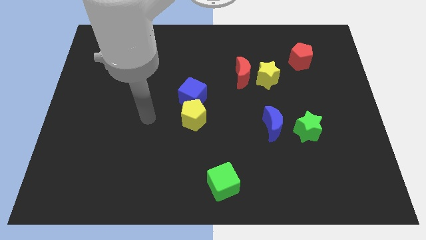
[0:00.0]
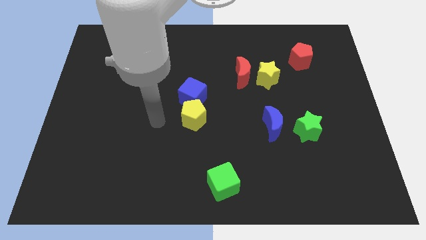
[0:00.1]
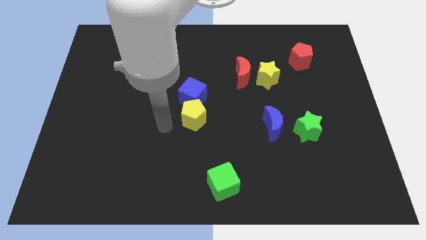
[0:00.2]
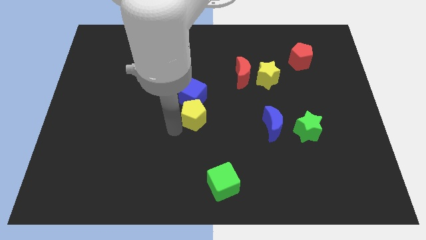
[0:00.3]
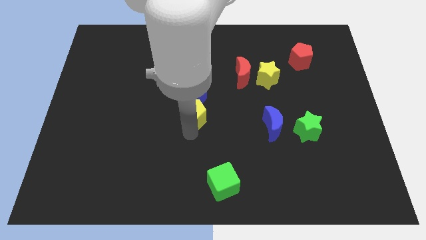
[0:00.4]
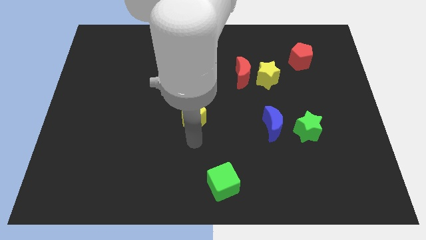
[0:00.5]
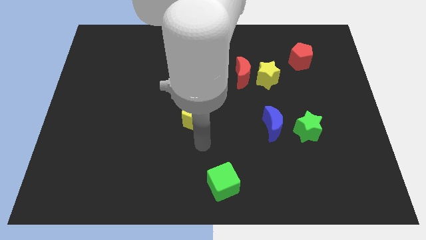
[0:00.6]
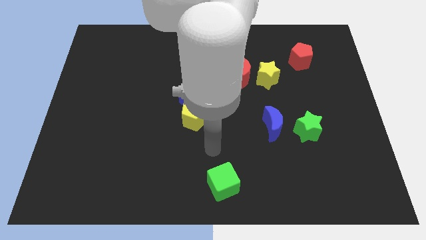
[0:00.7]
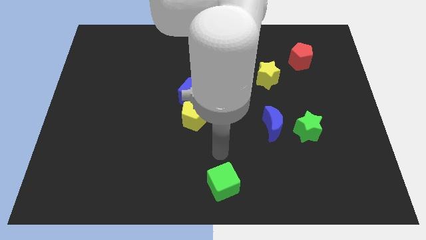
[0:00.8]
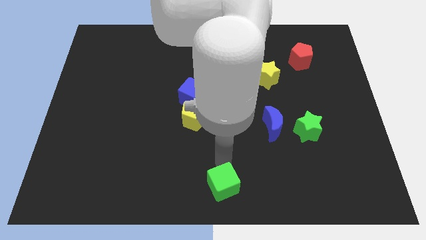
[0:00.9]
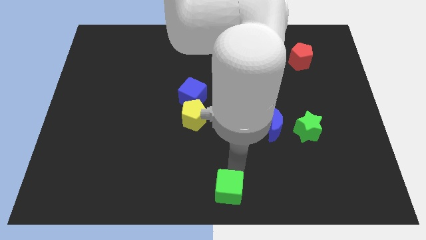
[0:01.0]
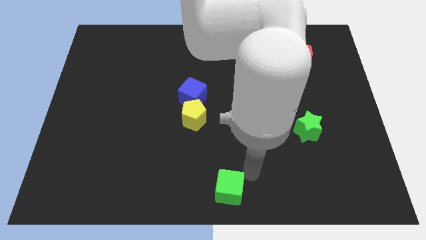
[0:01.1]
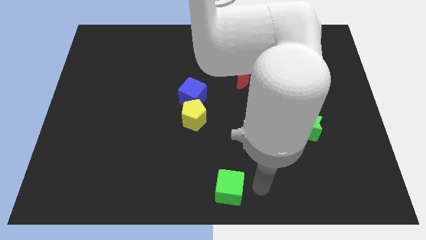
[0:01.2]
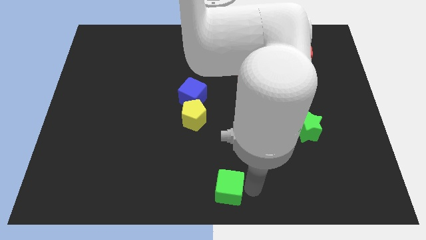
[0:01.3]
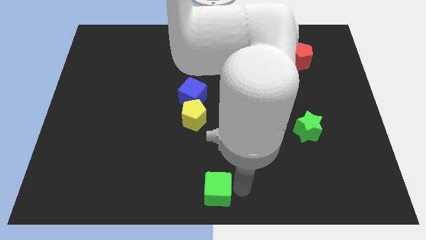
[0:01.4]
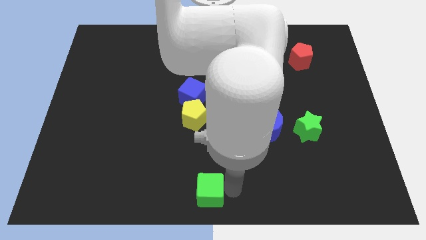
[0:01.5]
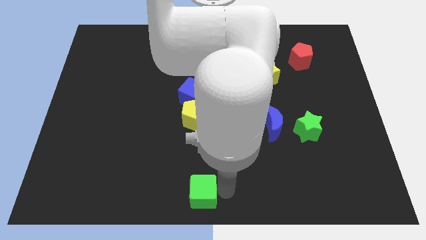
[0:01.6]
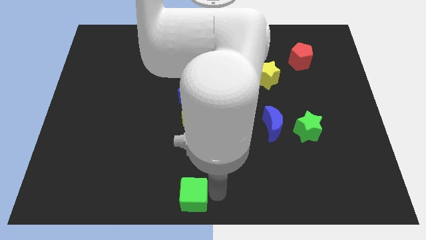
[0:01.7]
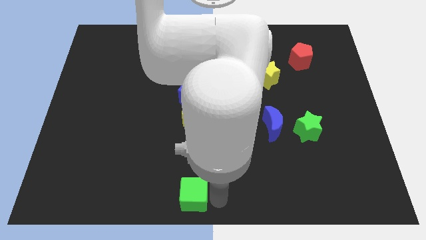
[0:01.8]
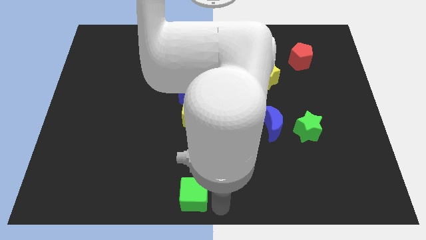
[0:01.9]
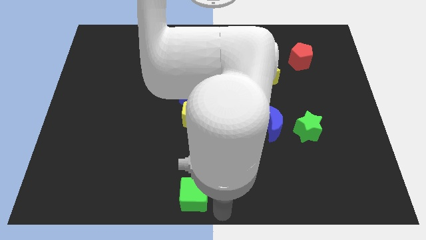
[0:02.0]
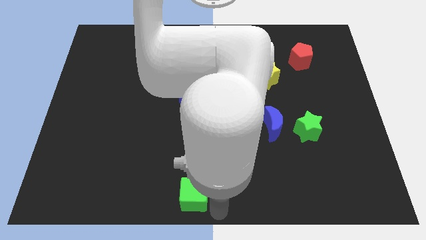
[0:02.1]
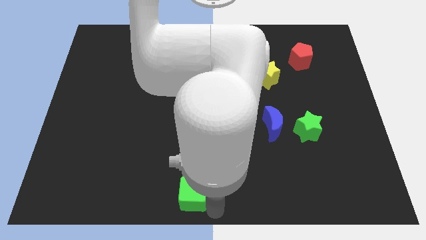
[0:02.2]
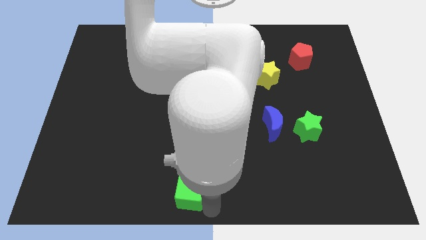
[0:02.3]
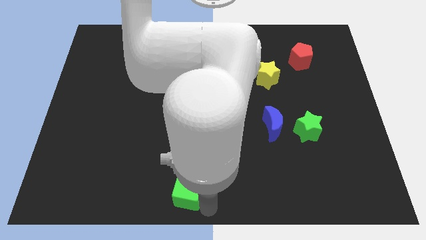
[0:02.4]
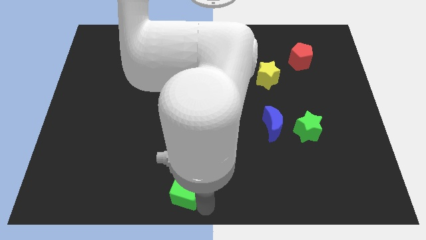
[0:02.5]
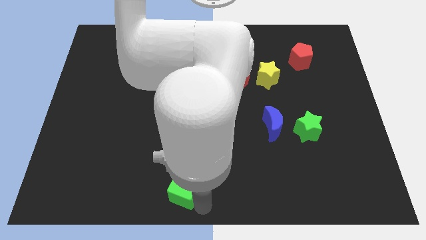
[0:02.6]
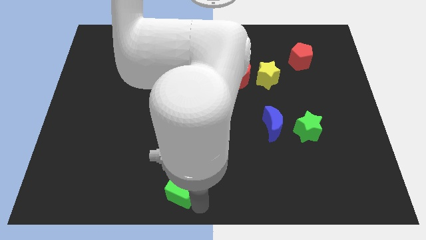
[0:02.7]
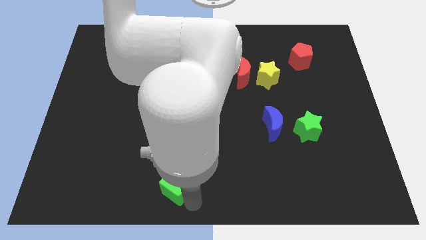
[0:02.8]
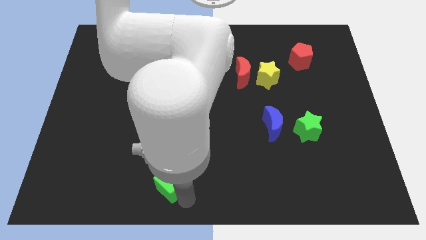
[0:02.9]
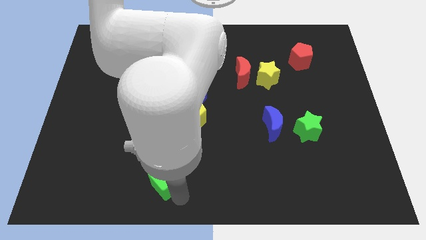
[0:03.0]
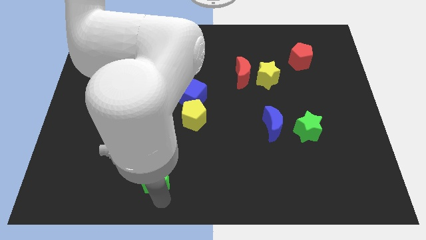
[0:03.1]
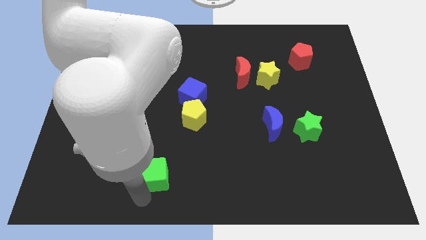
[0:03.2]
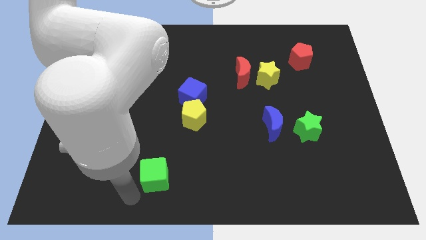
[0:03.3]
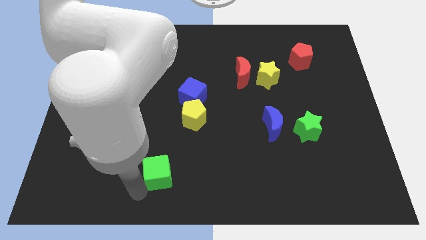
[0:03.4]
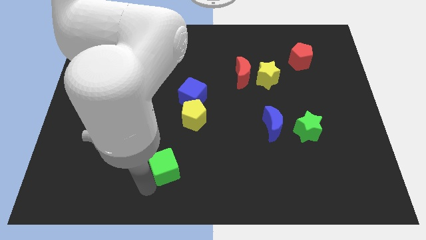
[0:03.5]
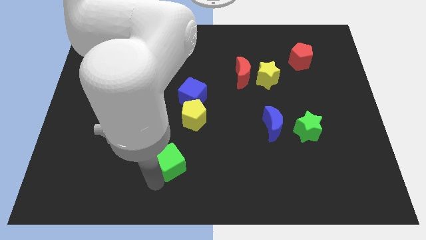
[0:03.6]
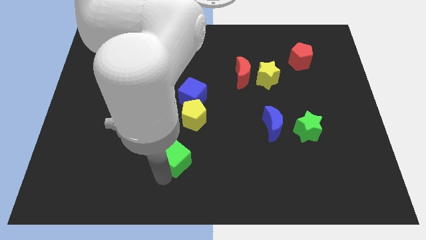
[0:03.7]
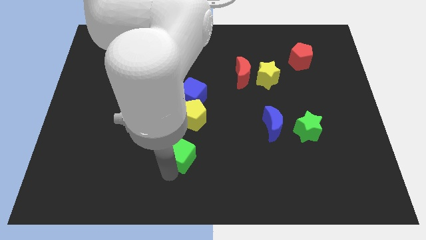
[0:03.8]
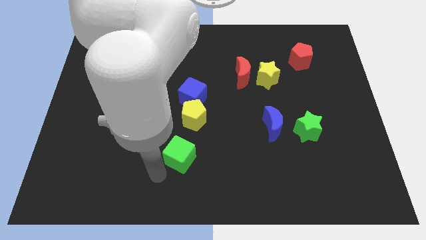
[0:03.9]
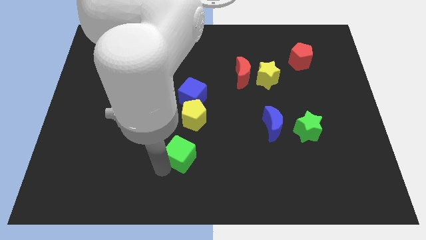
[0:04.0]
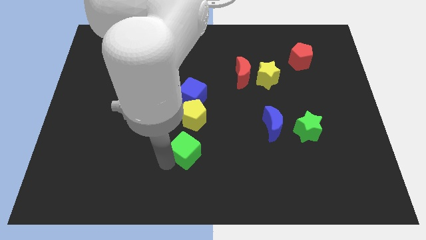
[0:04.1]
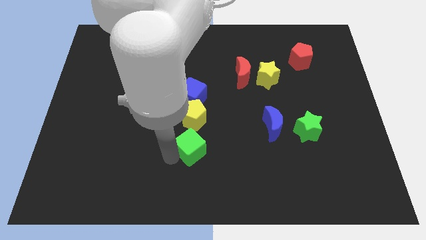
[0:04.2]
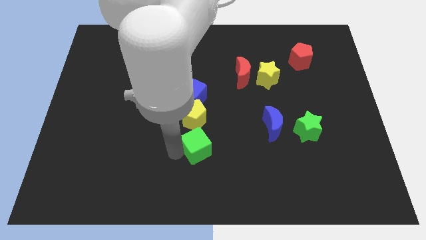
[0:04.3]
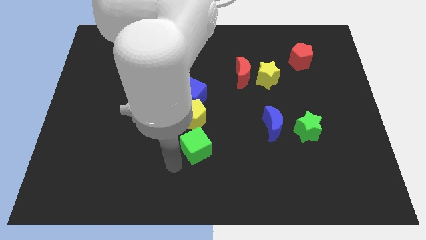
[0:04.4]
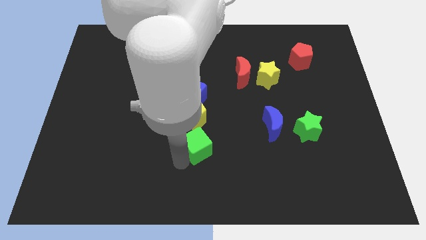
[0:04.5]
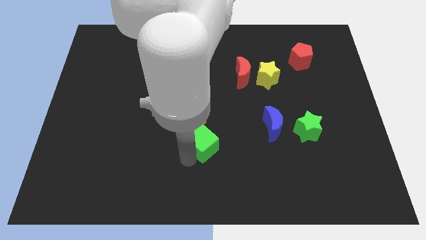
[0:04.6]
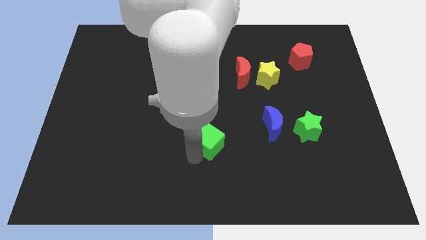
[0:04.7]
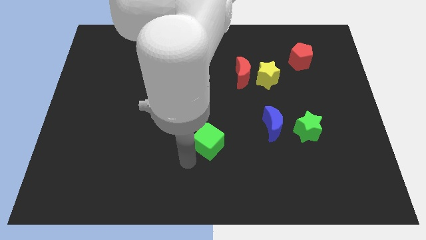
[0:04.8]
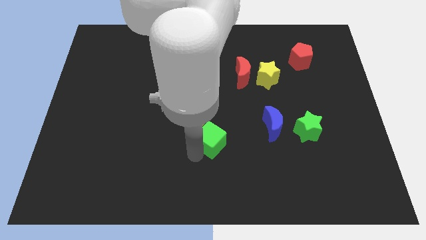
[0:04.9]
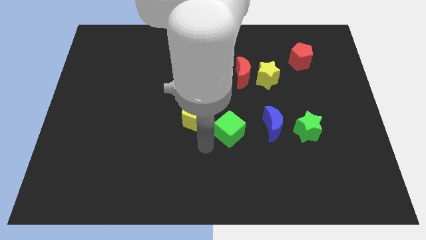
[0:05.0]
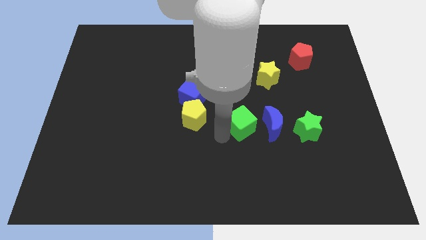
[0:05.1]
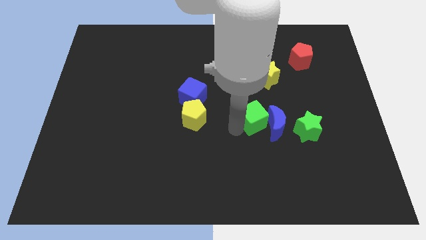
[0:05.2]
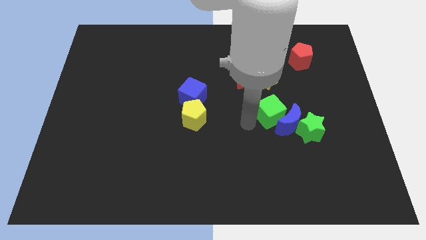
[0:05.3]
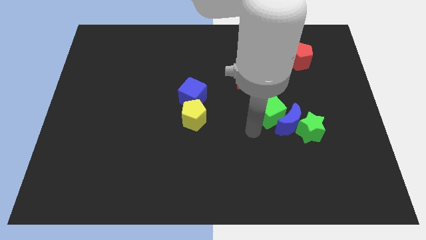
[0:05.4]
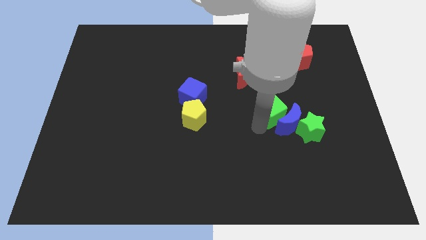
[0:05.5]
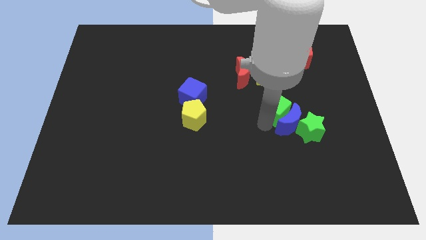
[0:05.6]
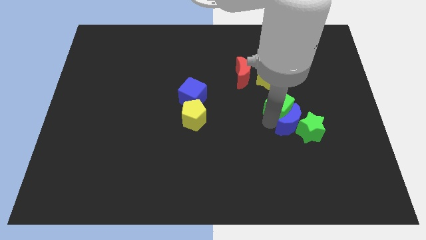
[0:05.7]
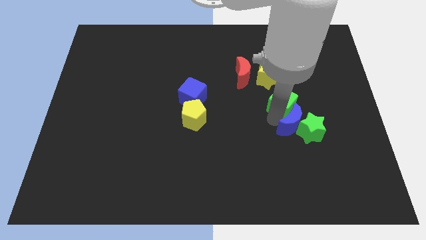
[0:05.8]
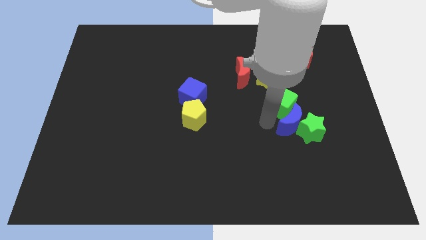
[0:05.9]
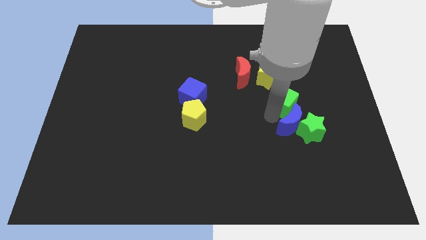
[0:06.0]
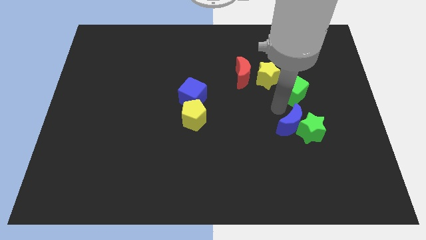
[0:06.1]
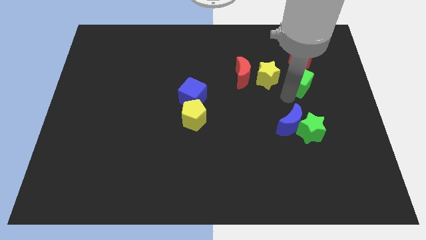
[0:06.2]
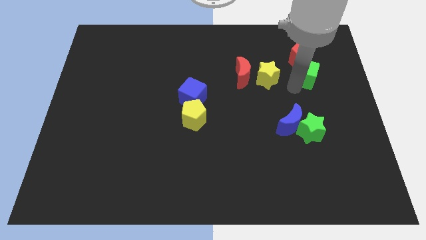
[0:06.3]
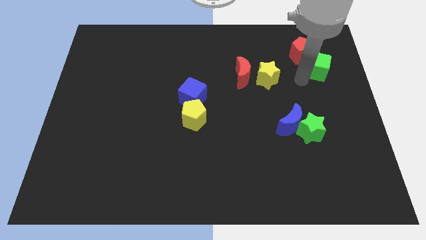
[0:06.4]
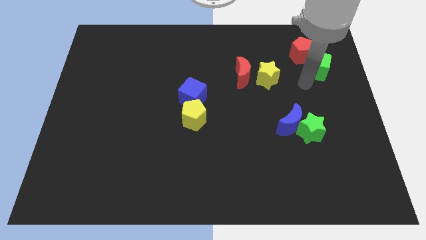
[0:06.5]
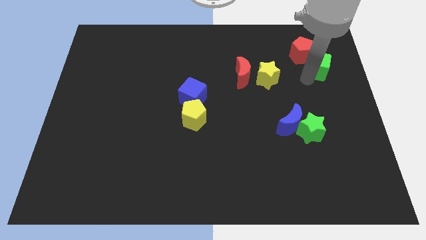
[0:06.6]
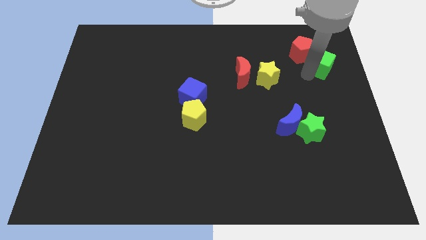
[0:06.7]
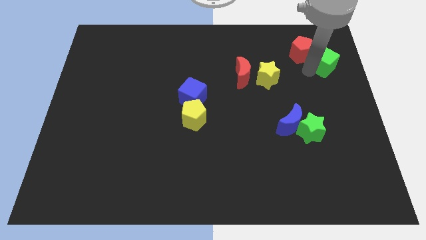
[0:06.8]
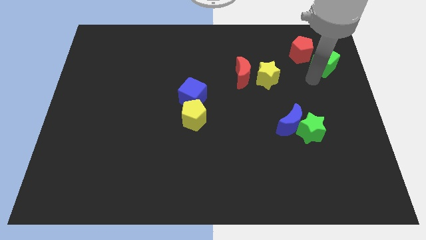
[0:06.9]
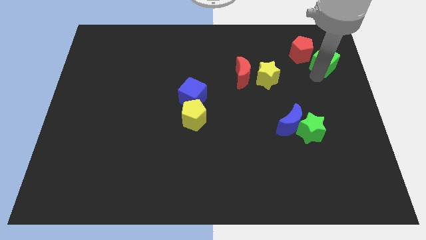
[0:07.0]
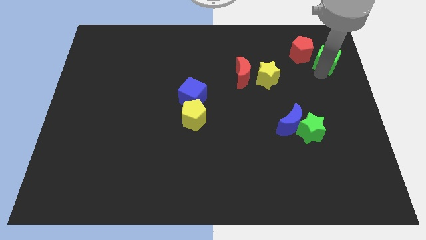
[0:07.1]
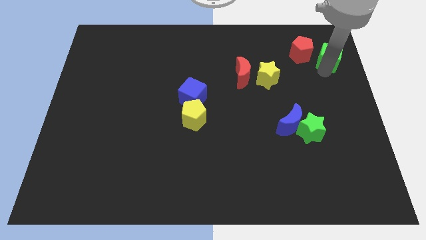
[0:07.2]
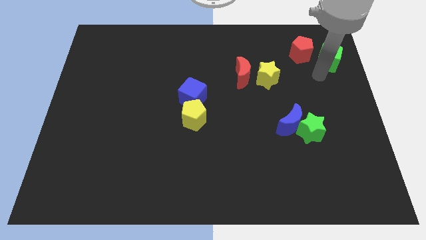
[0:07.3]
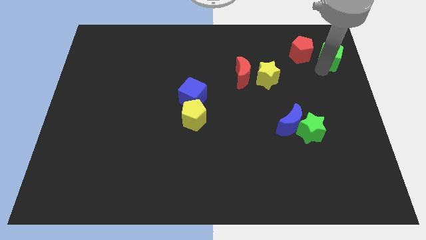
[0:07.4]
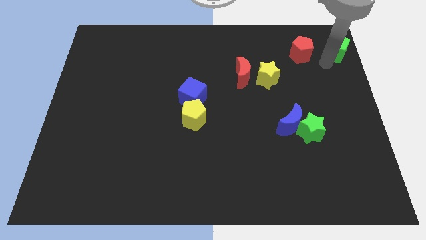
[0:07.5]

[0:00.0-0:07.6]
slide the green cube to the top right of the board
